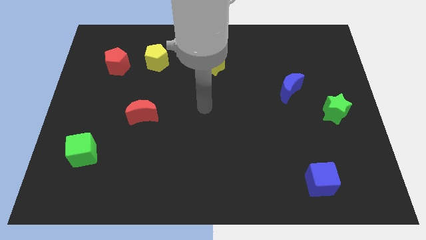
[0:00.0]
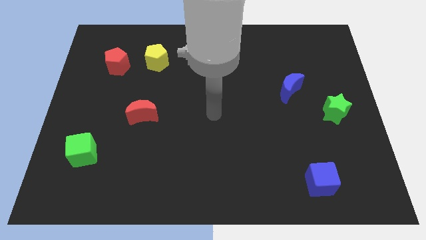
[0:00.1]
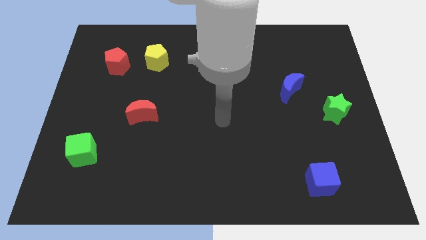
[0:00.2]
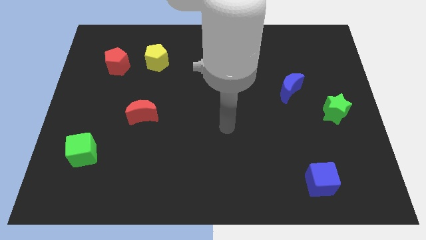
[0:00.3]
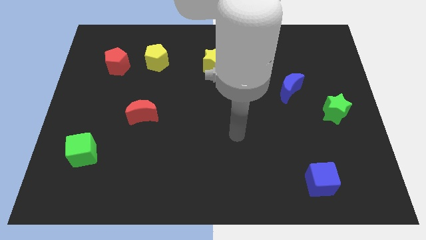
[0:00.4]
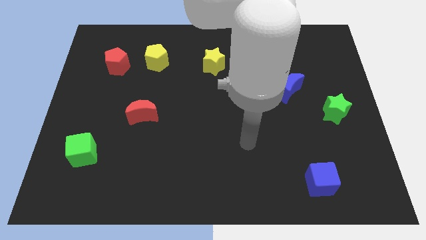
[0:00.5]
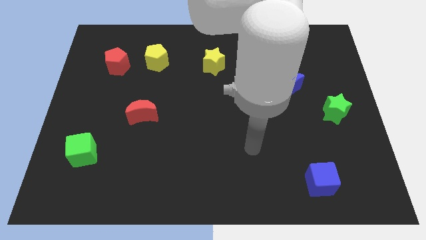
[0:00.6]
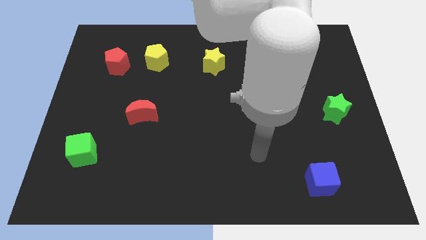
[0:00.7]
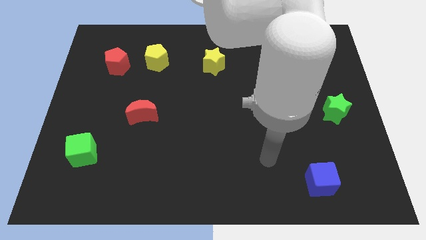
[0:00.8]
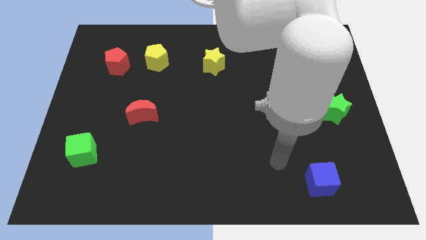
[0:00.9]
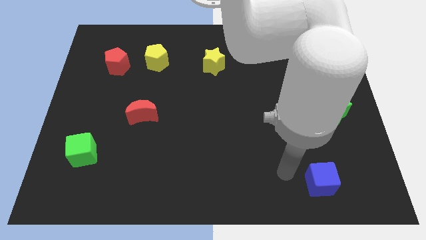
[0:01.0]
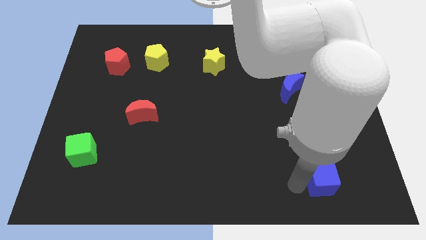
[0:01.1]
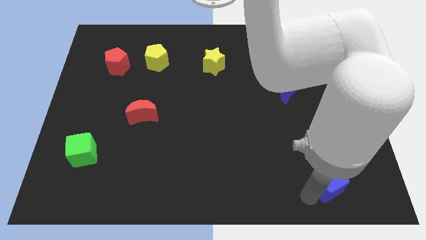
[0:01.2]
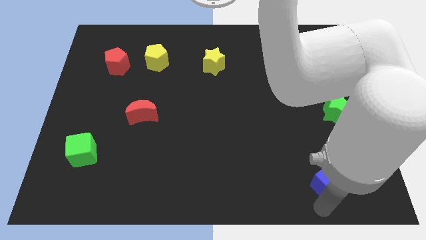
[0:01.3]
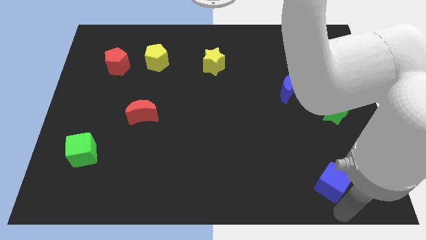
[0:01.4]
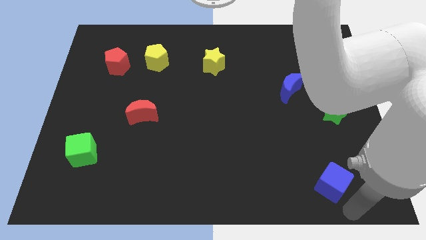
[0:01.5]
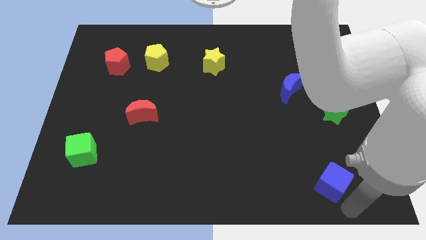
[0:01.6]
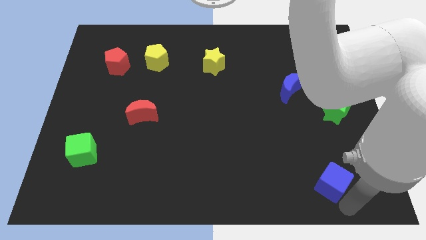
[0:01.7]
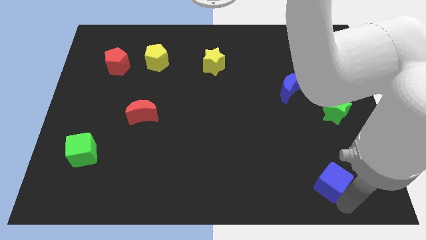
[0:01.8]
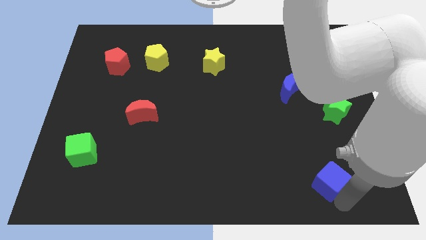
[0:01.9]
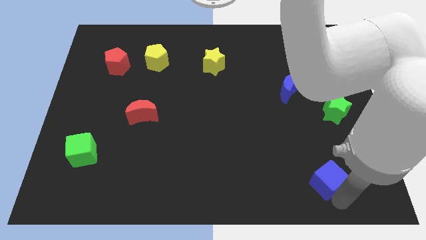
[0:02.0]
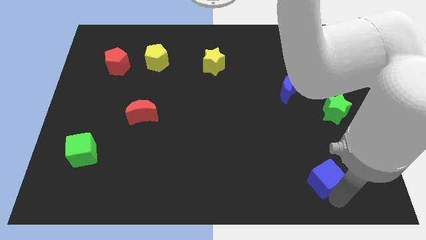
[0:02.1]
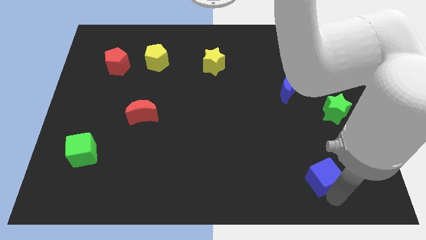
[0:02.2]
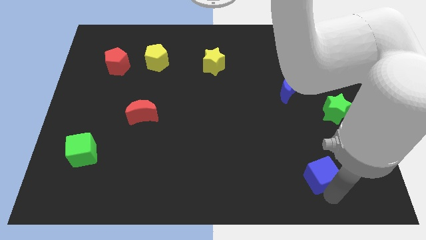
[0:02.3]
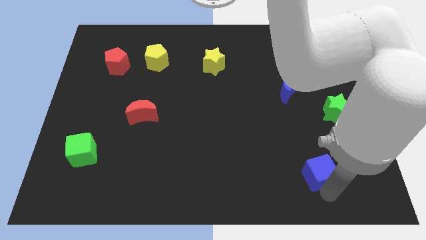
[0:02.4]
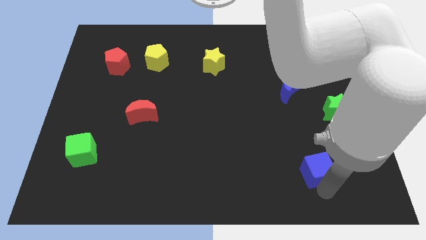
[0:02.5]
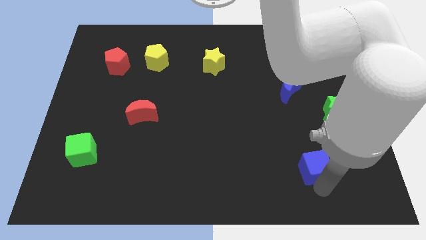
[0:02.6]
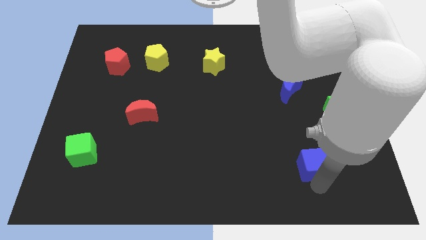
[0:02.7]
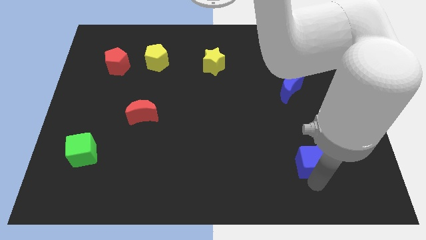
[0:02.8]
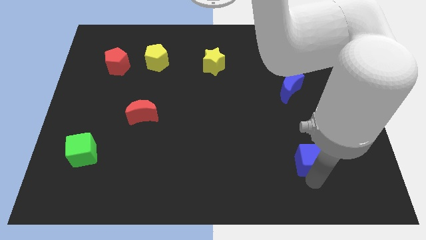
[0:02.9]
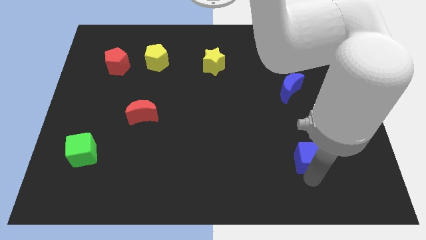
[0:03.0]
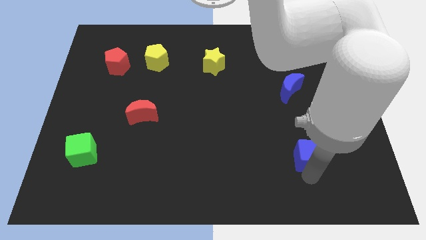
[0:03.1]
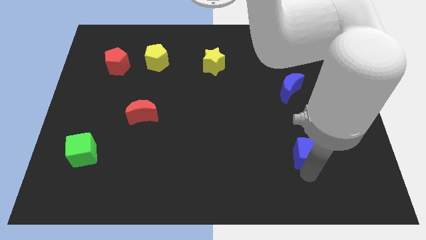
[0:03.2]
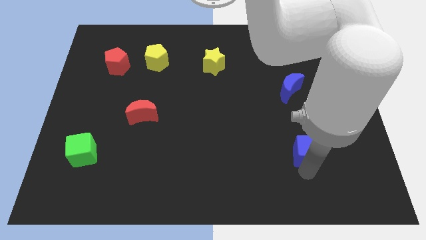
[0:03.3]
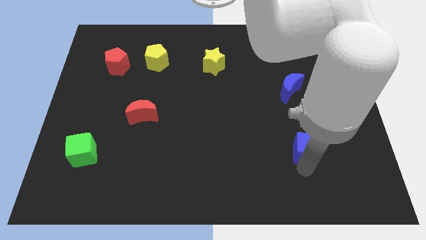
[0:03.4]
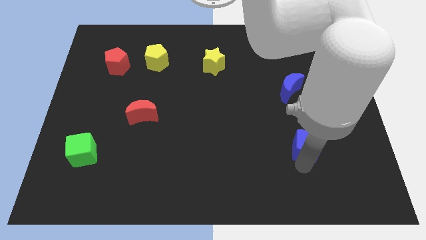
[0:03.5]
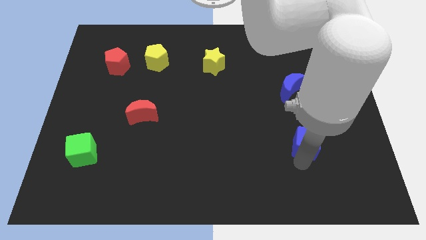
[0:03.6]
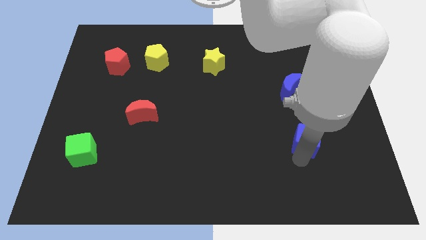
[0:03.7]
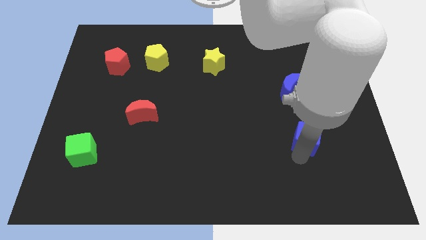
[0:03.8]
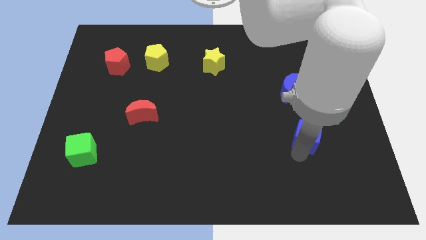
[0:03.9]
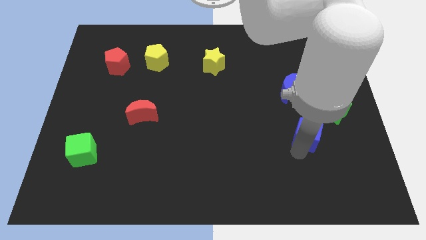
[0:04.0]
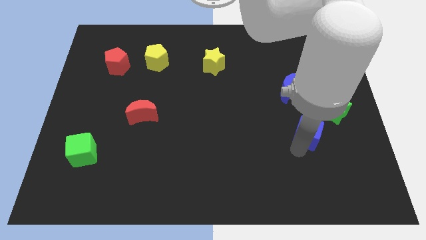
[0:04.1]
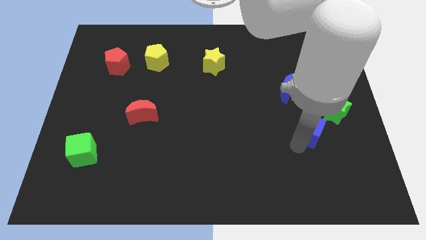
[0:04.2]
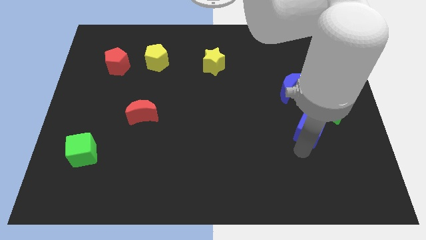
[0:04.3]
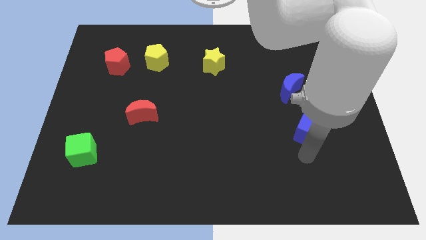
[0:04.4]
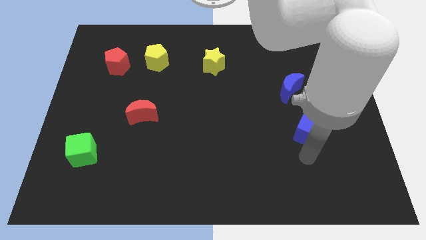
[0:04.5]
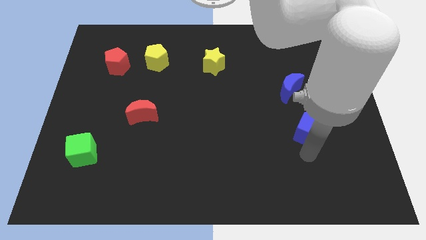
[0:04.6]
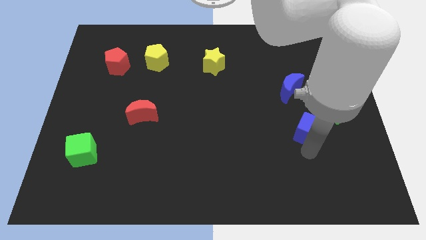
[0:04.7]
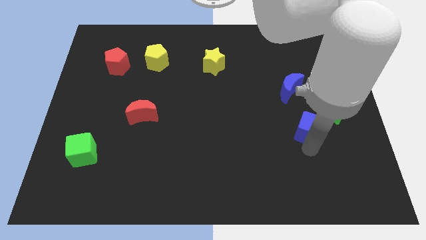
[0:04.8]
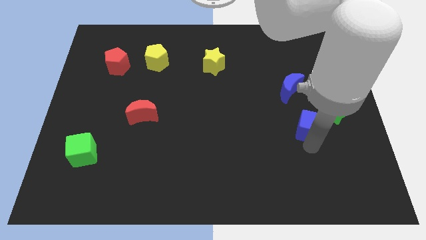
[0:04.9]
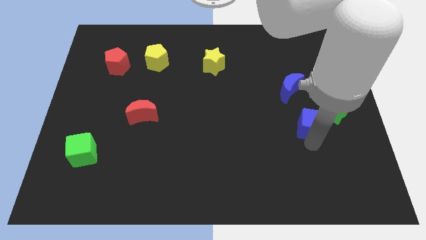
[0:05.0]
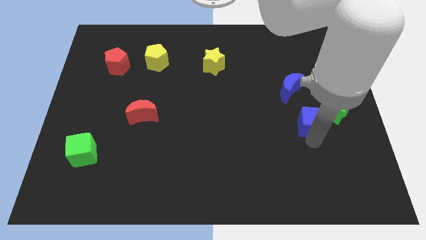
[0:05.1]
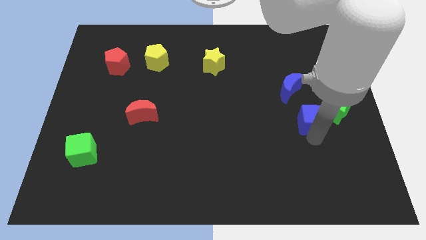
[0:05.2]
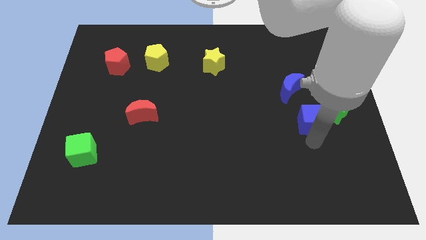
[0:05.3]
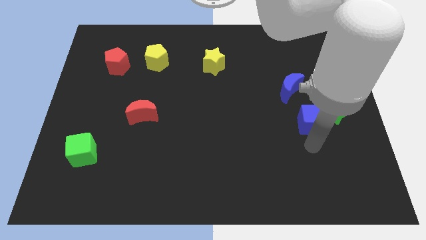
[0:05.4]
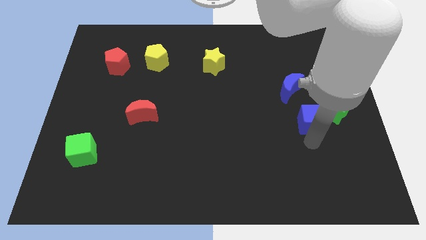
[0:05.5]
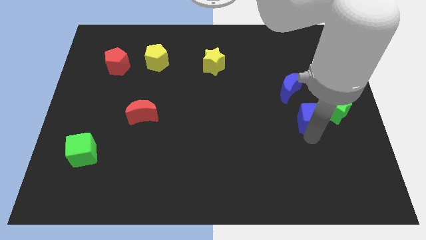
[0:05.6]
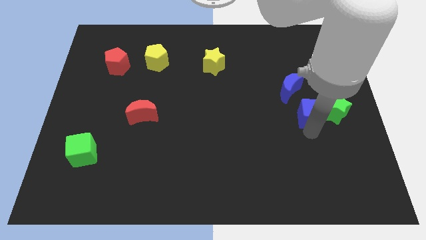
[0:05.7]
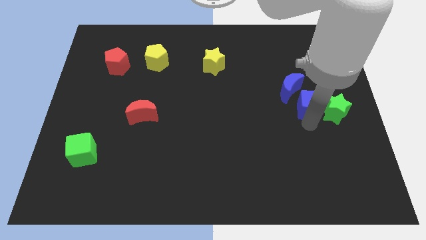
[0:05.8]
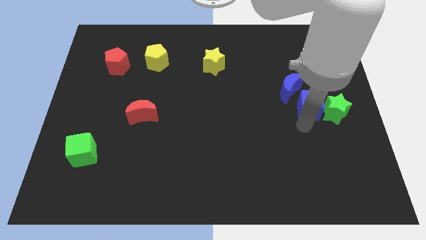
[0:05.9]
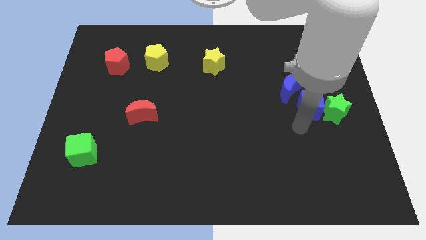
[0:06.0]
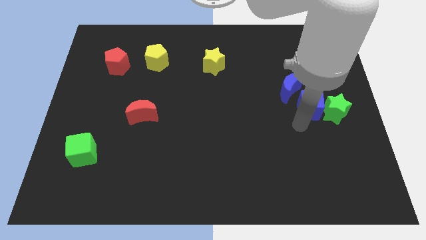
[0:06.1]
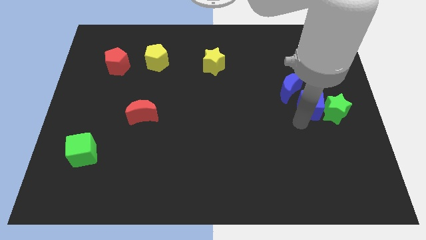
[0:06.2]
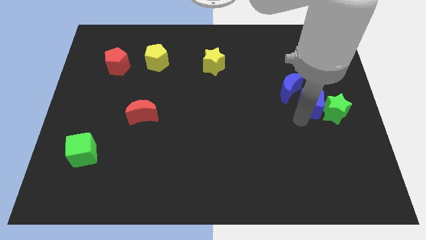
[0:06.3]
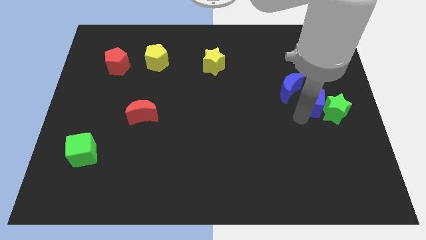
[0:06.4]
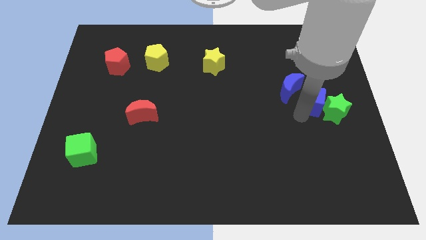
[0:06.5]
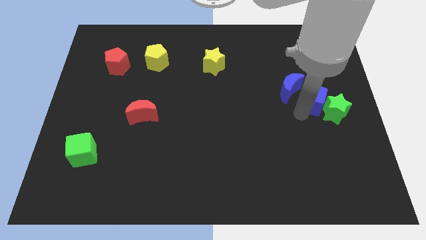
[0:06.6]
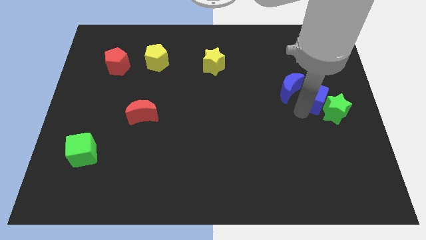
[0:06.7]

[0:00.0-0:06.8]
slide the blue cube to the top of the green star

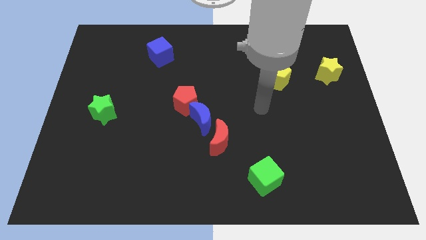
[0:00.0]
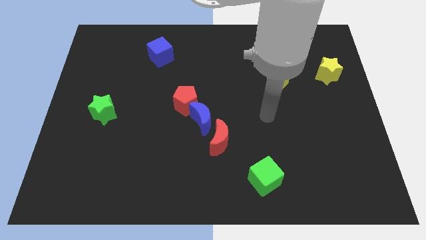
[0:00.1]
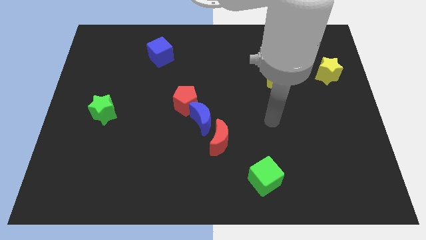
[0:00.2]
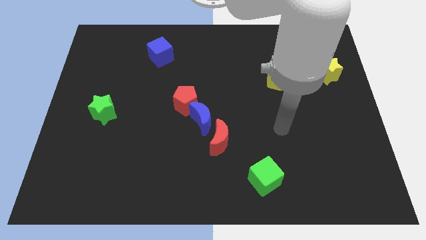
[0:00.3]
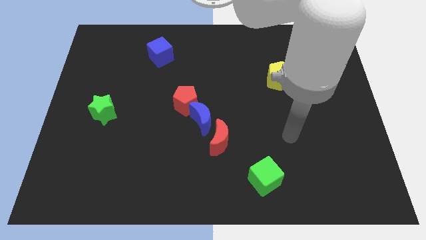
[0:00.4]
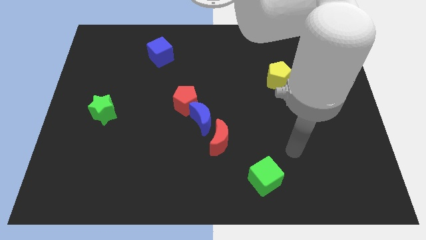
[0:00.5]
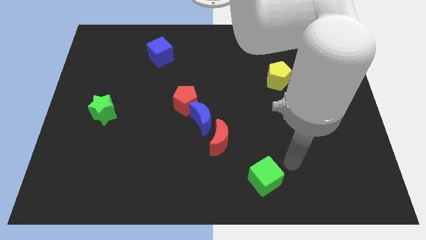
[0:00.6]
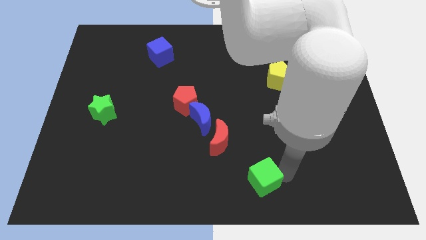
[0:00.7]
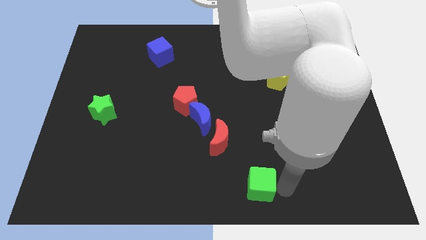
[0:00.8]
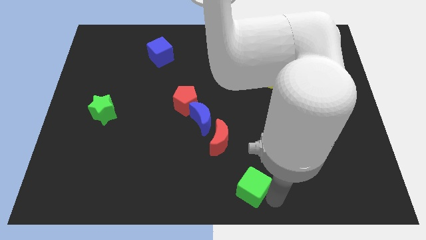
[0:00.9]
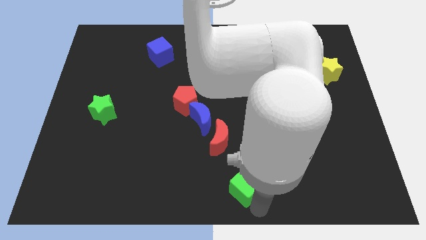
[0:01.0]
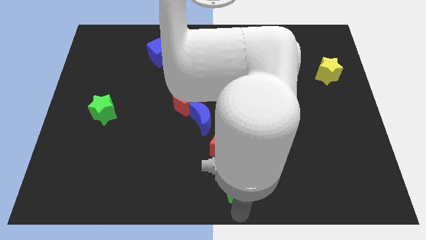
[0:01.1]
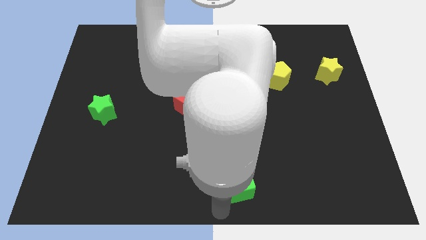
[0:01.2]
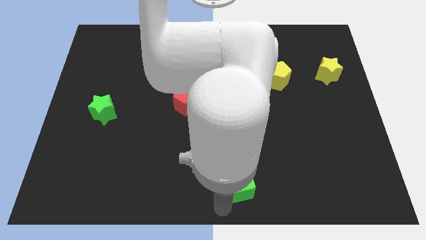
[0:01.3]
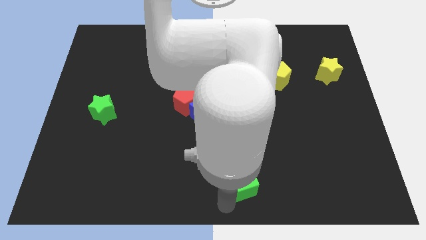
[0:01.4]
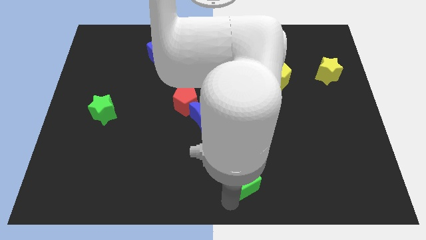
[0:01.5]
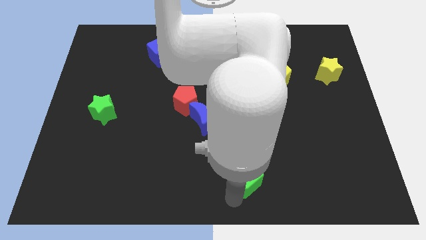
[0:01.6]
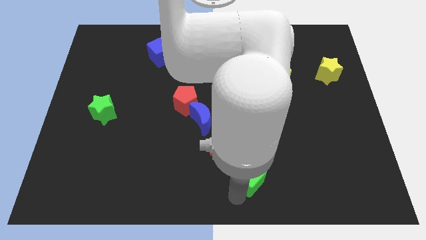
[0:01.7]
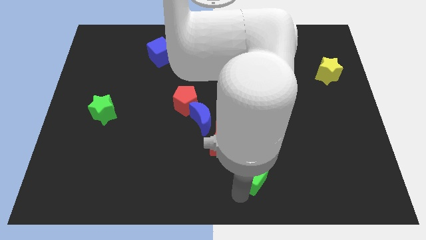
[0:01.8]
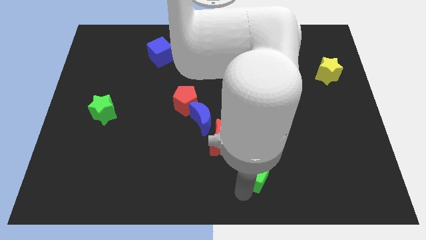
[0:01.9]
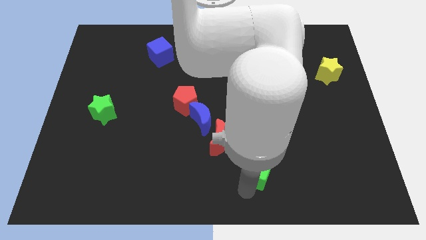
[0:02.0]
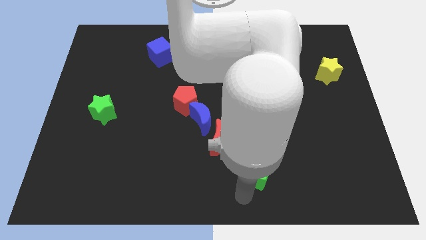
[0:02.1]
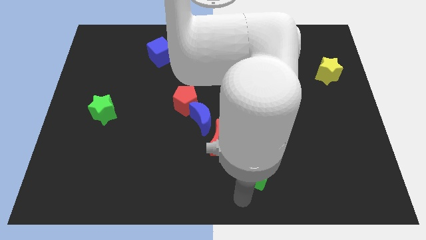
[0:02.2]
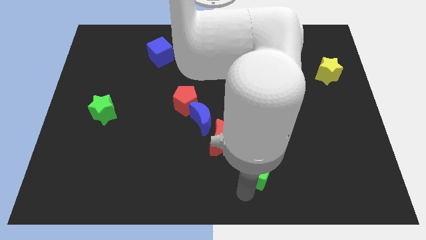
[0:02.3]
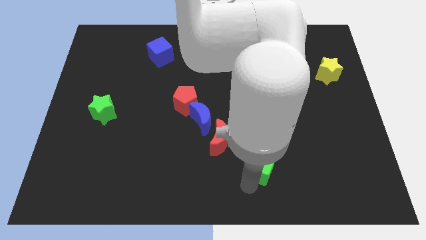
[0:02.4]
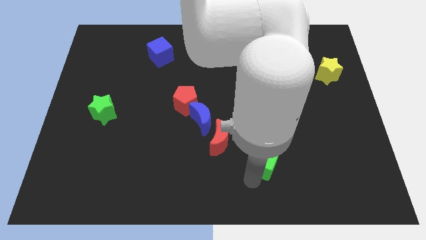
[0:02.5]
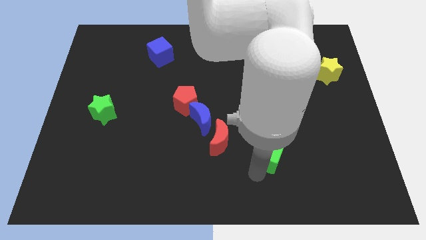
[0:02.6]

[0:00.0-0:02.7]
slide the green cube just right of the red moon
